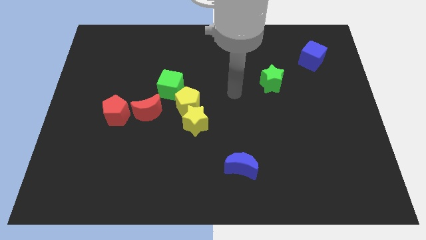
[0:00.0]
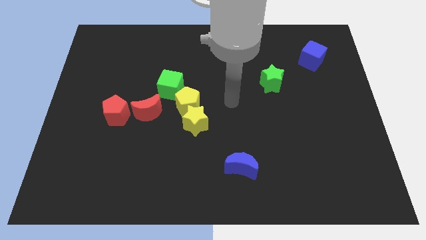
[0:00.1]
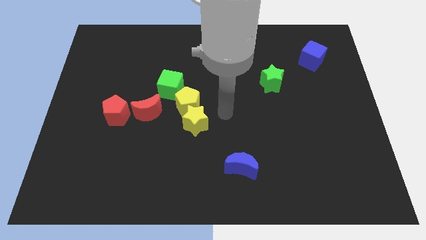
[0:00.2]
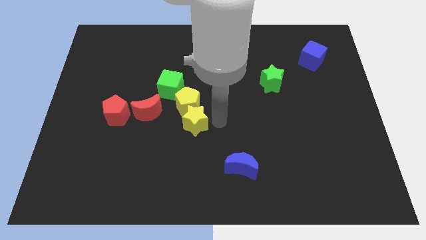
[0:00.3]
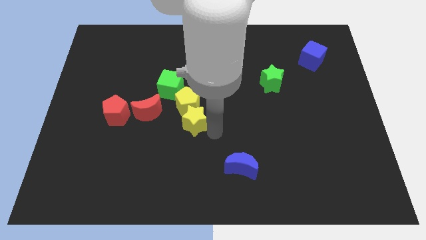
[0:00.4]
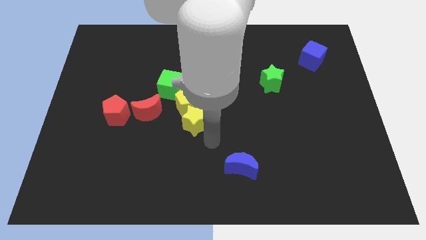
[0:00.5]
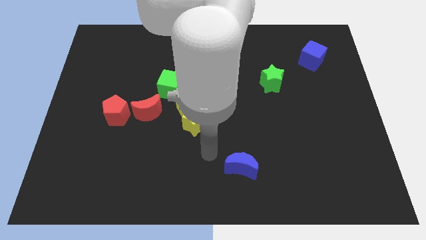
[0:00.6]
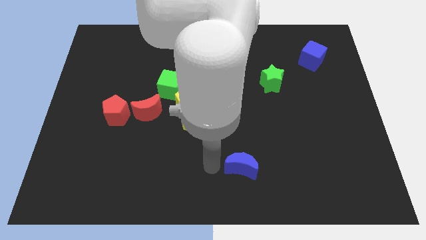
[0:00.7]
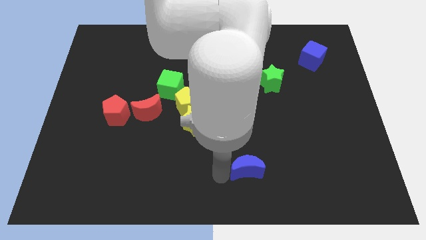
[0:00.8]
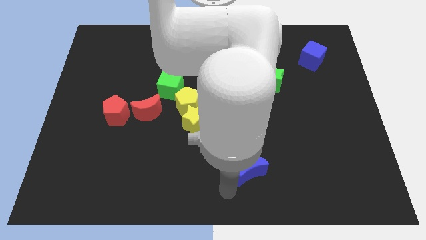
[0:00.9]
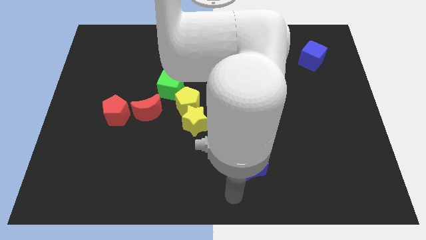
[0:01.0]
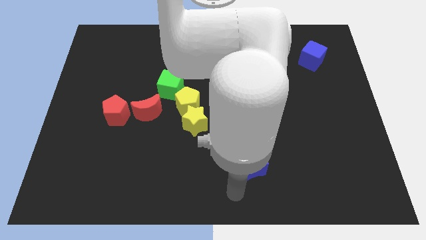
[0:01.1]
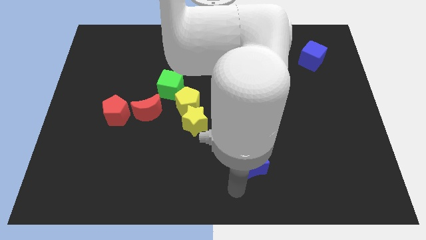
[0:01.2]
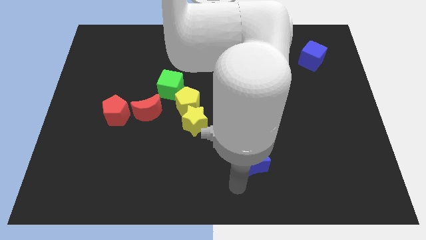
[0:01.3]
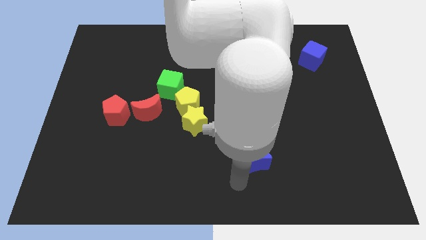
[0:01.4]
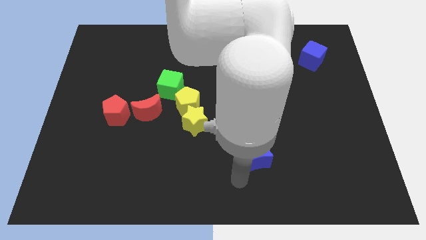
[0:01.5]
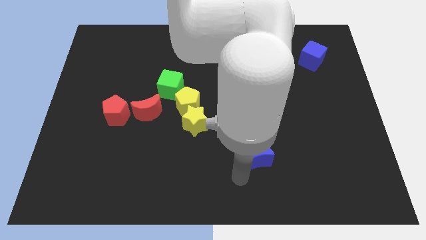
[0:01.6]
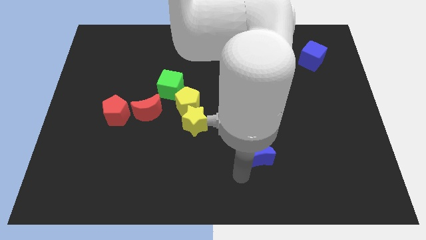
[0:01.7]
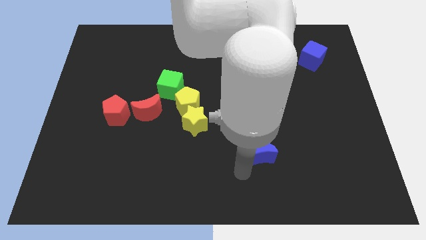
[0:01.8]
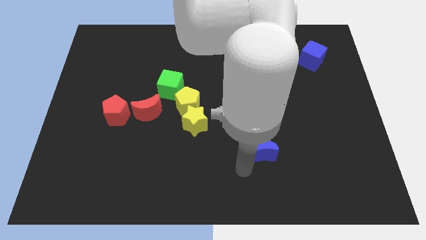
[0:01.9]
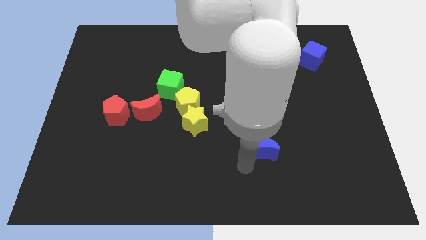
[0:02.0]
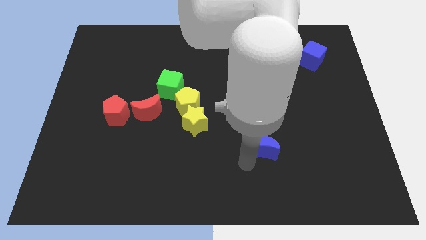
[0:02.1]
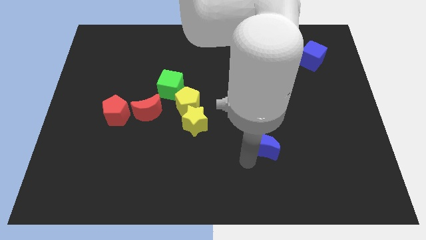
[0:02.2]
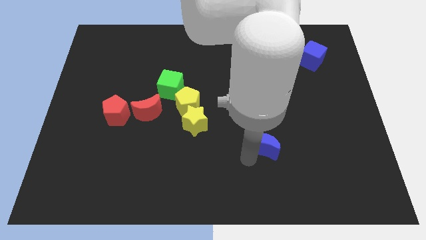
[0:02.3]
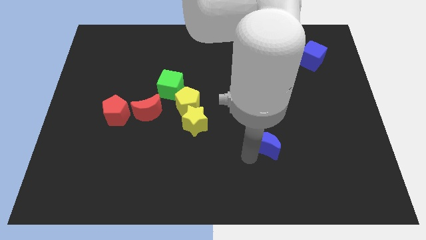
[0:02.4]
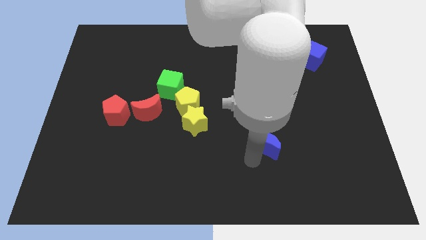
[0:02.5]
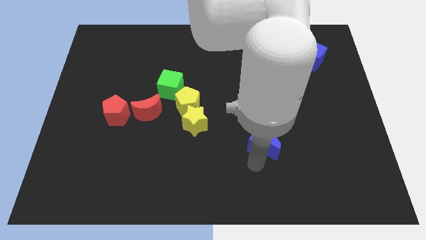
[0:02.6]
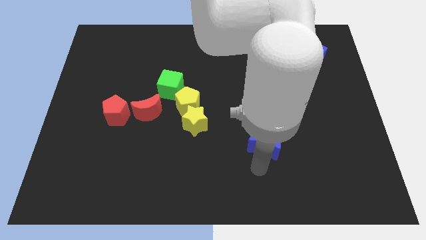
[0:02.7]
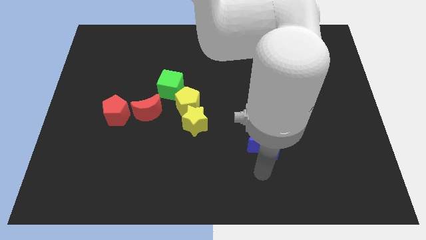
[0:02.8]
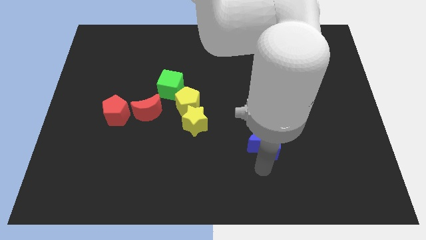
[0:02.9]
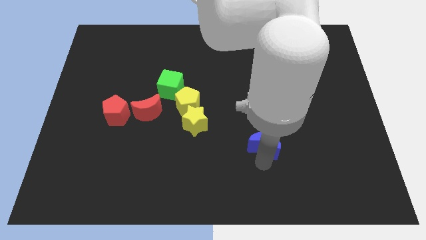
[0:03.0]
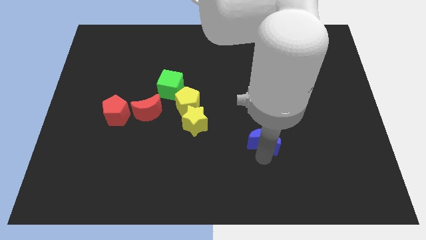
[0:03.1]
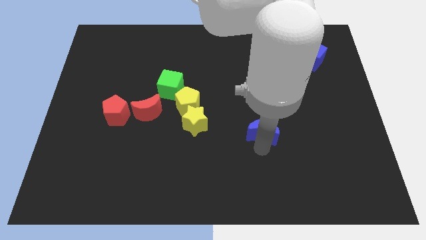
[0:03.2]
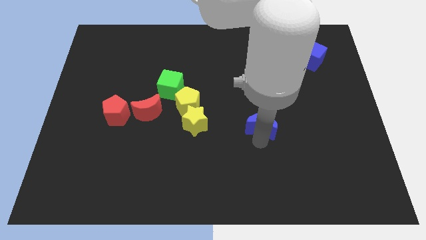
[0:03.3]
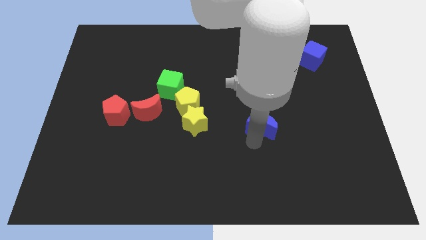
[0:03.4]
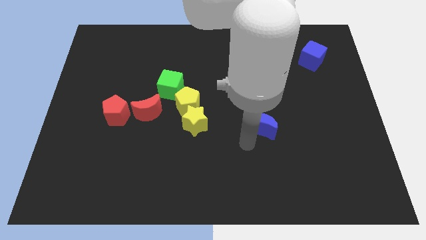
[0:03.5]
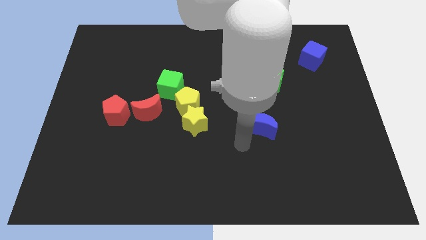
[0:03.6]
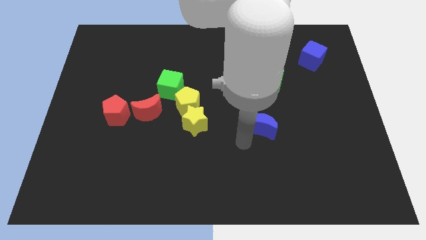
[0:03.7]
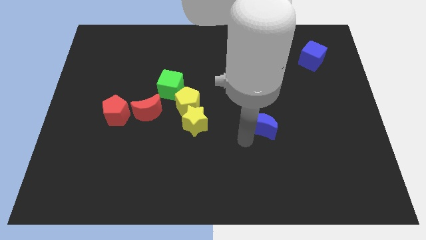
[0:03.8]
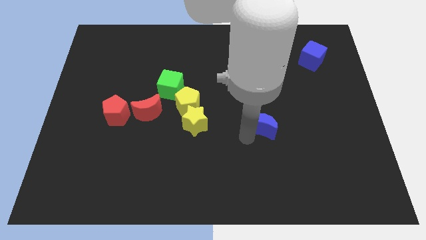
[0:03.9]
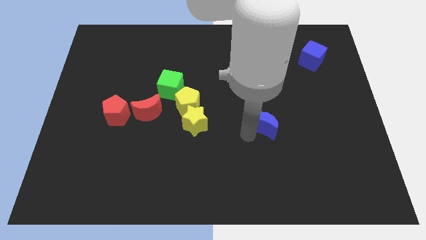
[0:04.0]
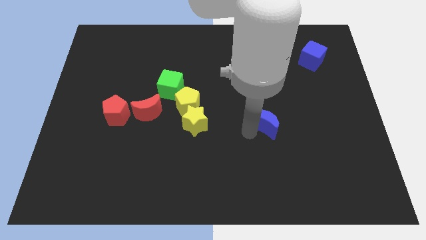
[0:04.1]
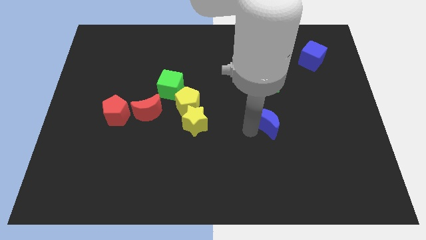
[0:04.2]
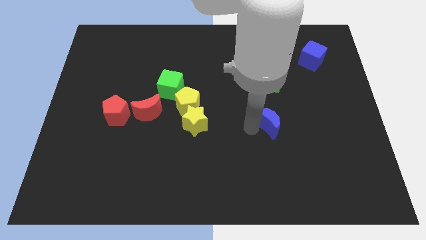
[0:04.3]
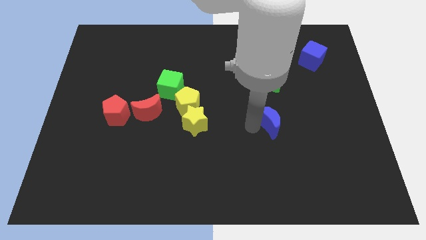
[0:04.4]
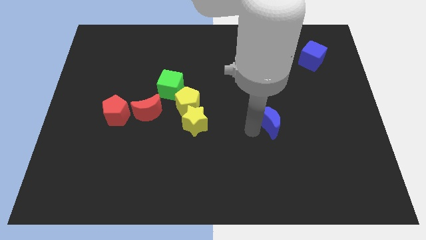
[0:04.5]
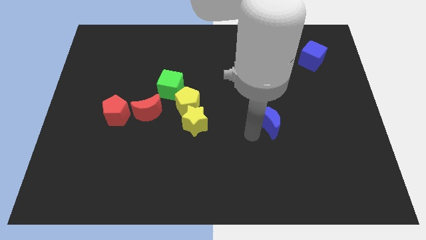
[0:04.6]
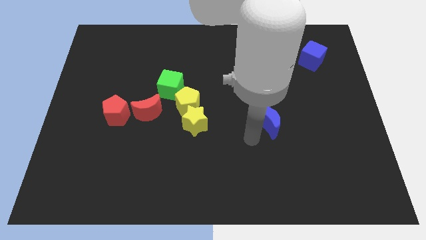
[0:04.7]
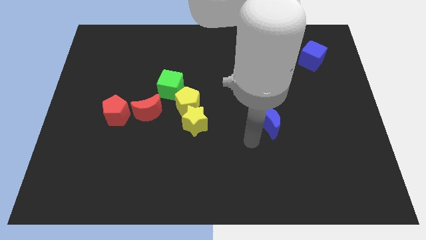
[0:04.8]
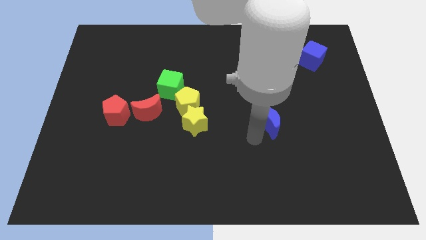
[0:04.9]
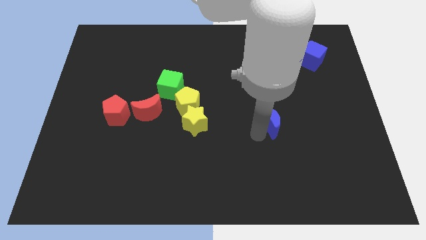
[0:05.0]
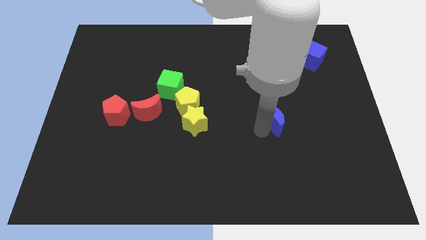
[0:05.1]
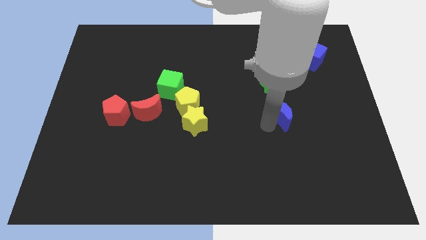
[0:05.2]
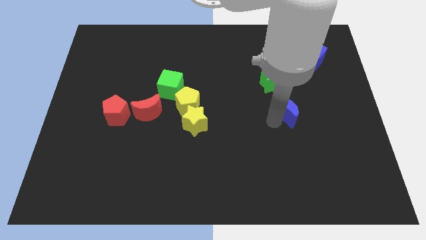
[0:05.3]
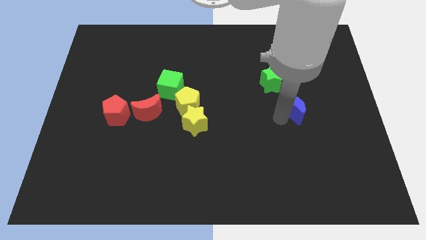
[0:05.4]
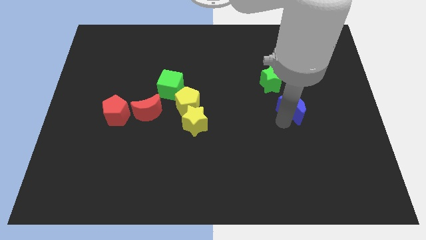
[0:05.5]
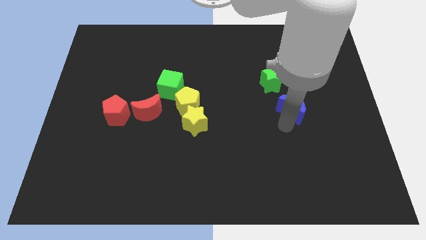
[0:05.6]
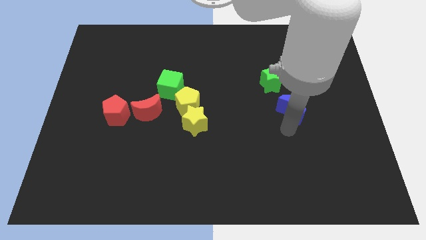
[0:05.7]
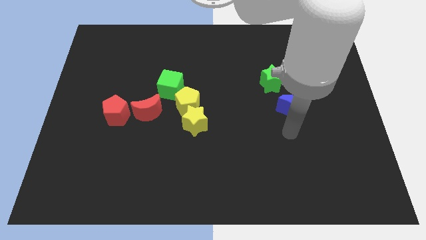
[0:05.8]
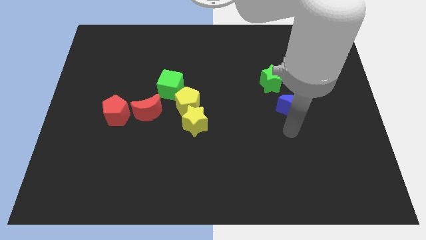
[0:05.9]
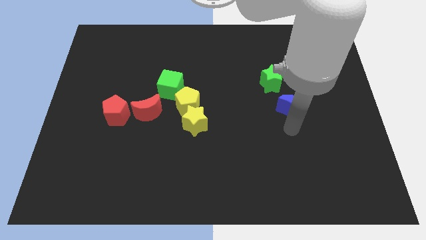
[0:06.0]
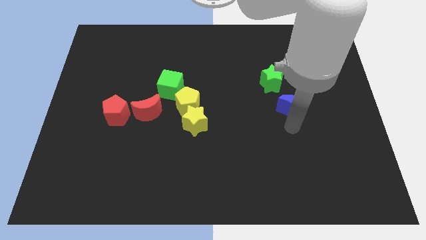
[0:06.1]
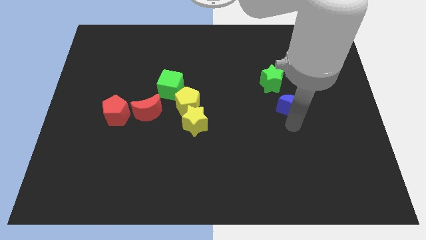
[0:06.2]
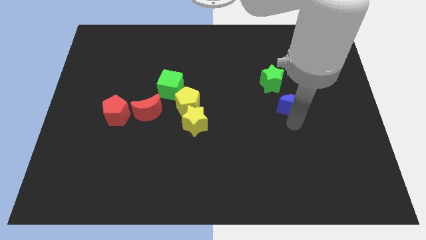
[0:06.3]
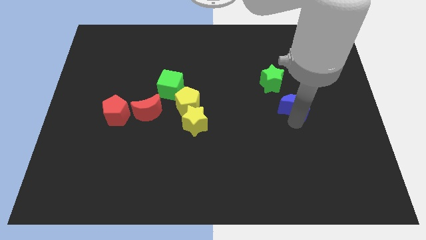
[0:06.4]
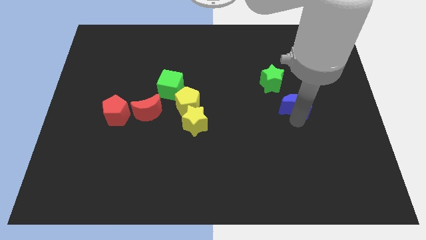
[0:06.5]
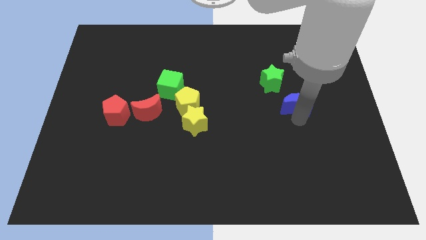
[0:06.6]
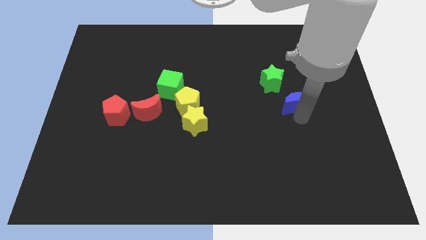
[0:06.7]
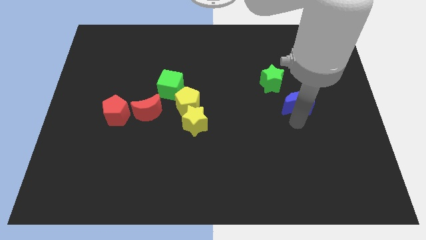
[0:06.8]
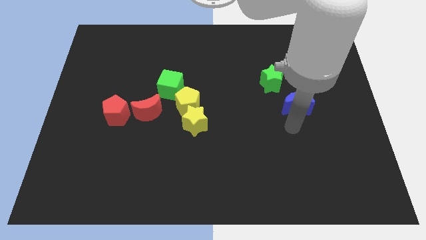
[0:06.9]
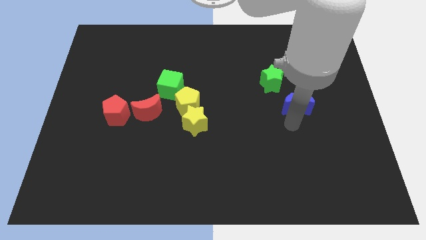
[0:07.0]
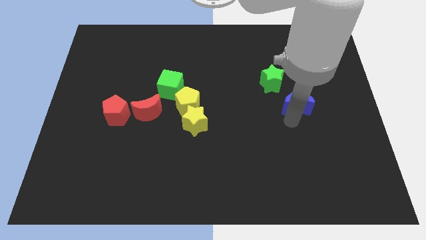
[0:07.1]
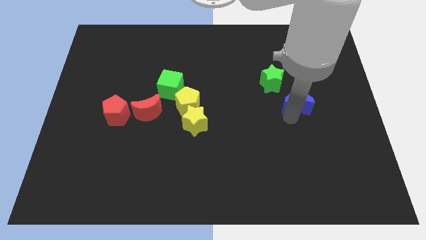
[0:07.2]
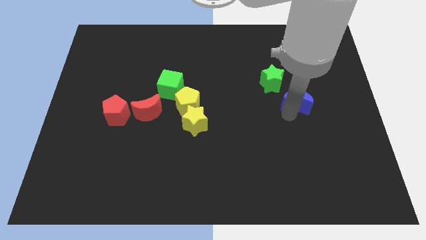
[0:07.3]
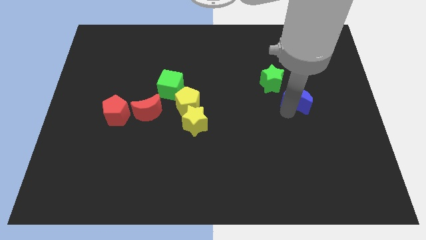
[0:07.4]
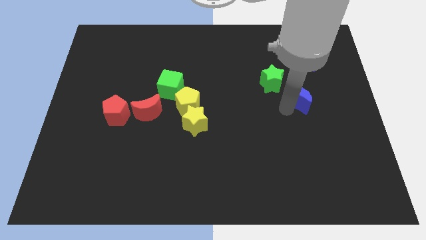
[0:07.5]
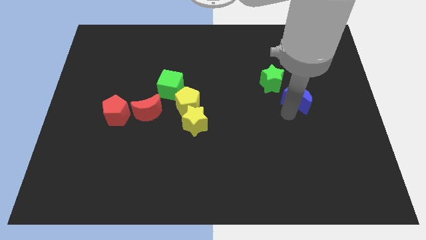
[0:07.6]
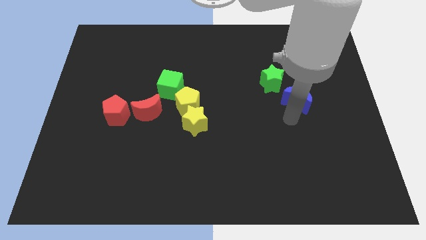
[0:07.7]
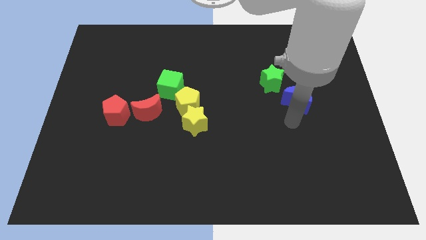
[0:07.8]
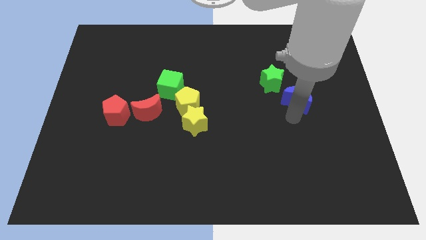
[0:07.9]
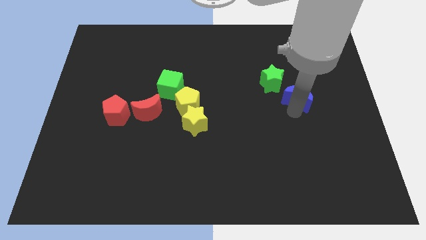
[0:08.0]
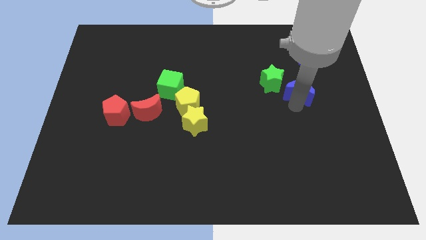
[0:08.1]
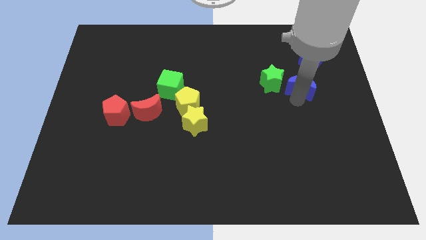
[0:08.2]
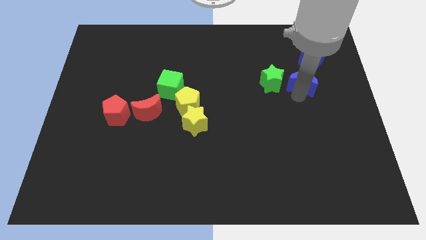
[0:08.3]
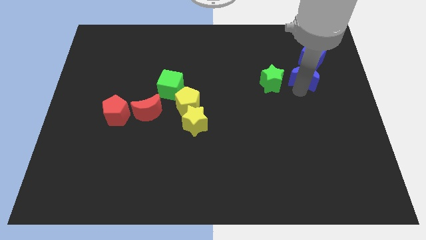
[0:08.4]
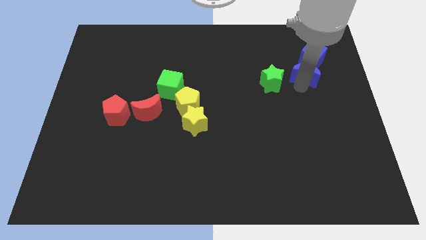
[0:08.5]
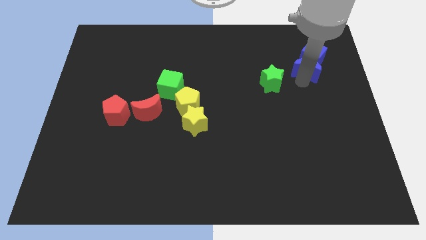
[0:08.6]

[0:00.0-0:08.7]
move the blue moon to the blue cube
